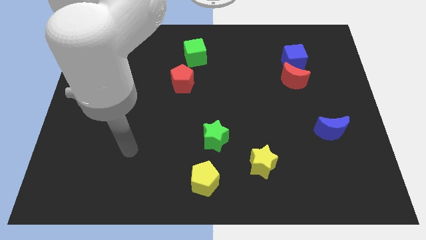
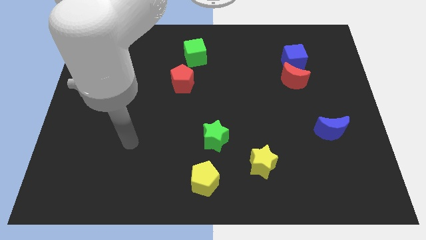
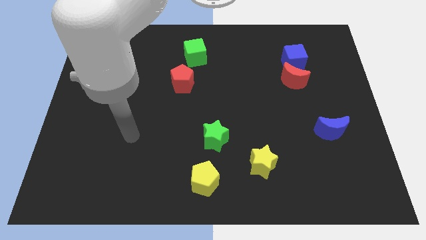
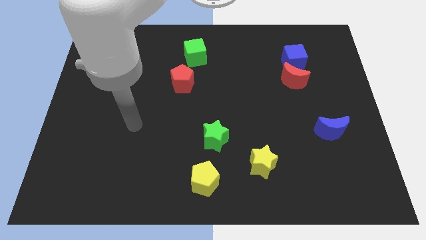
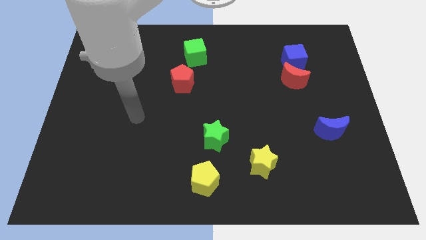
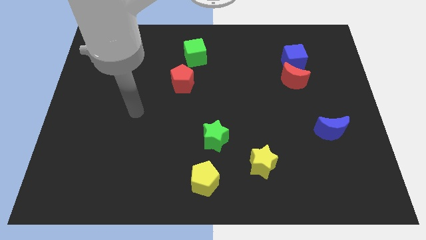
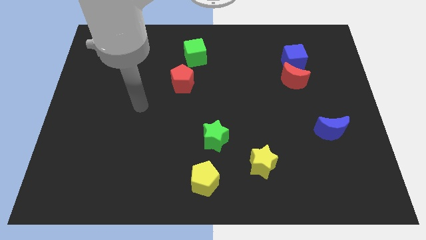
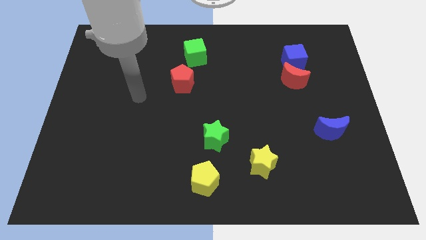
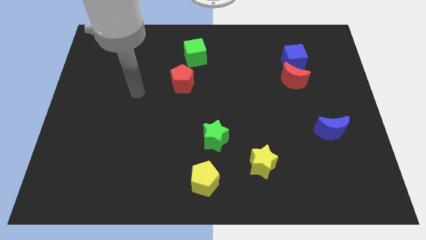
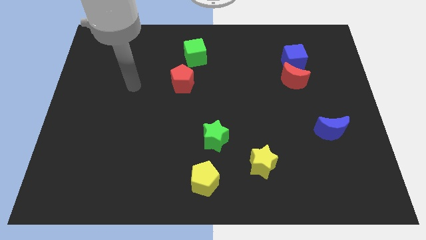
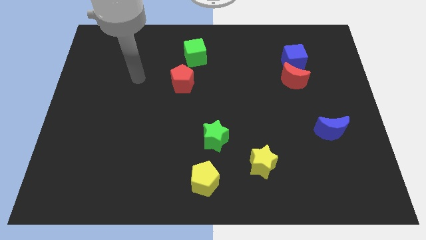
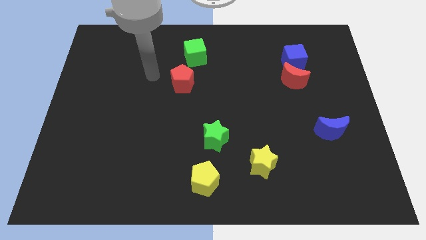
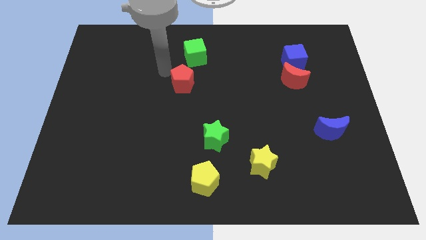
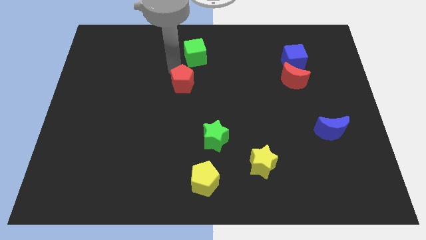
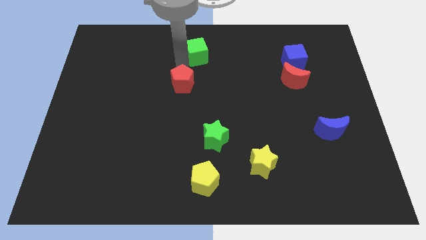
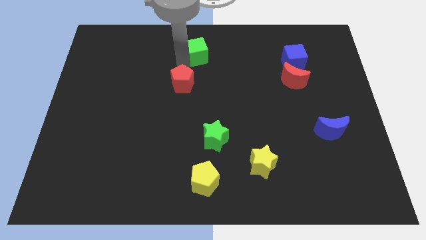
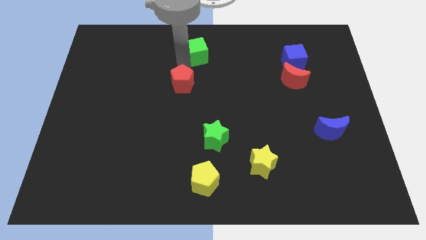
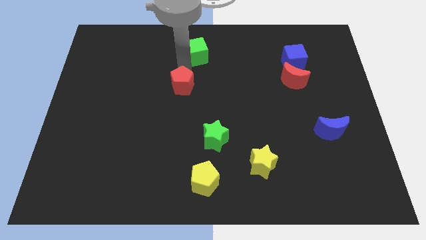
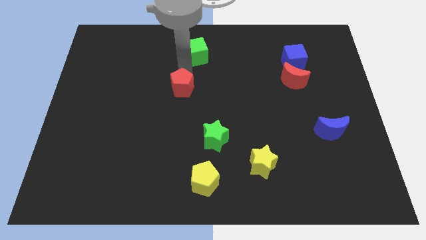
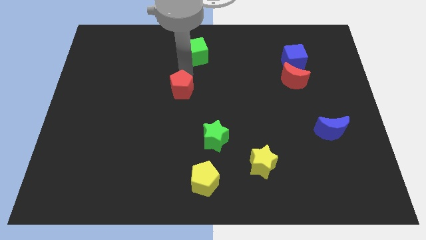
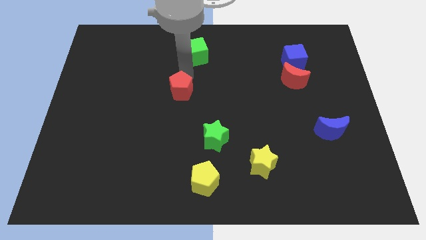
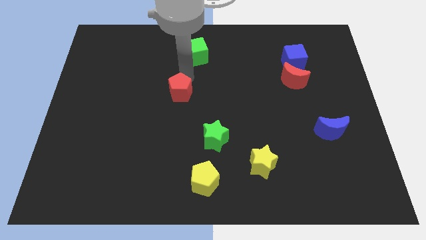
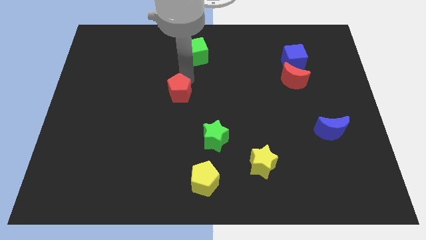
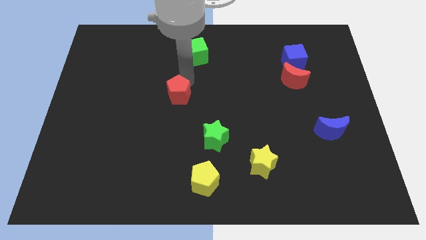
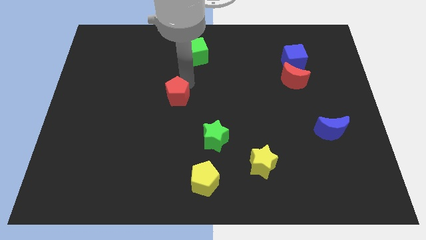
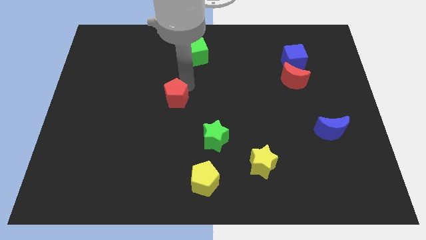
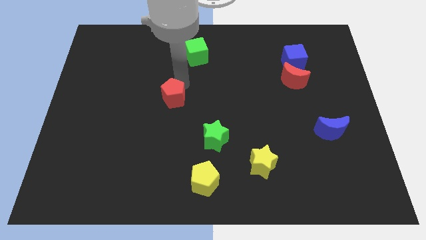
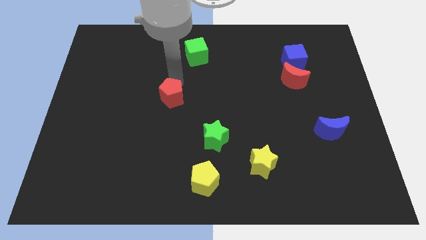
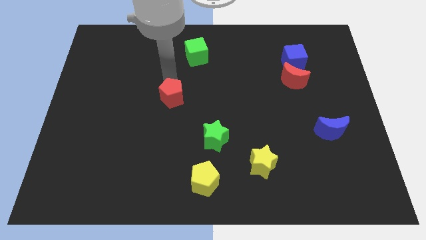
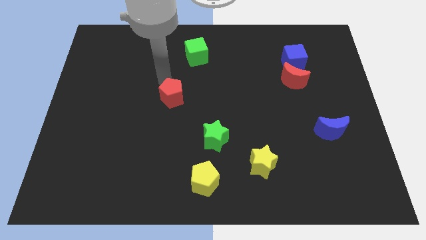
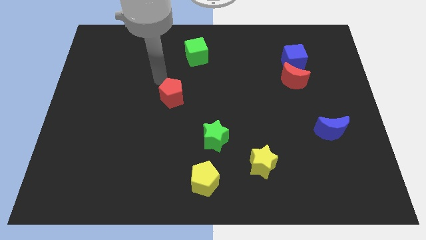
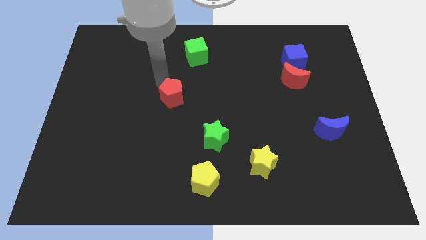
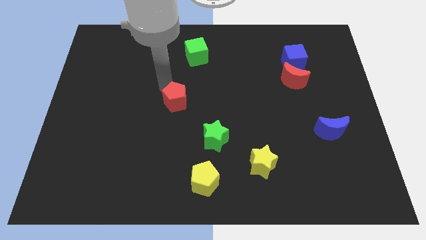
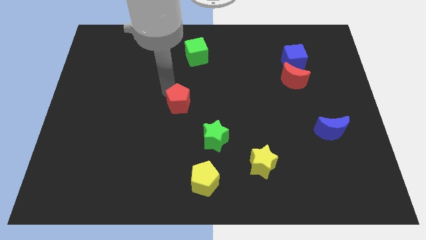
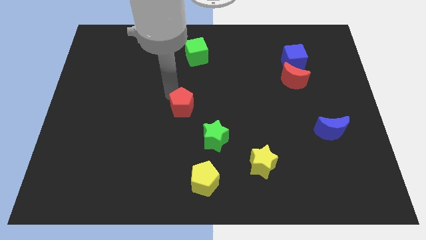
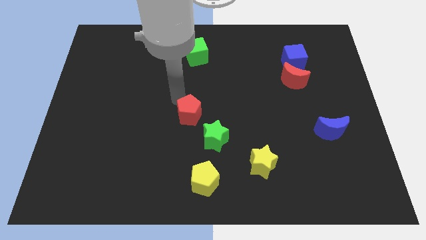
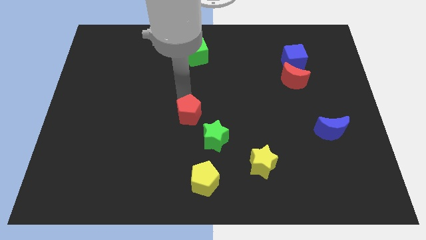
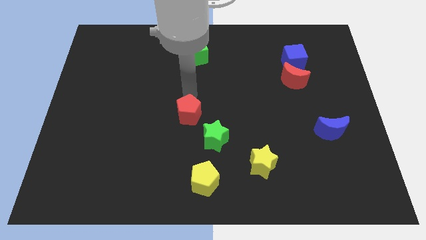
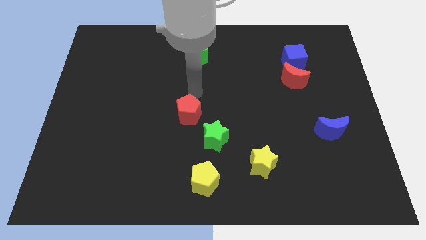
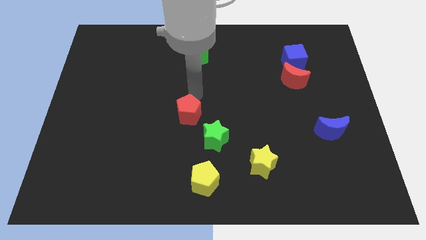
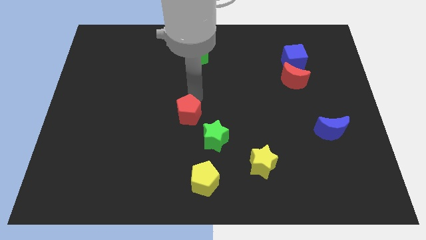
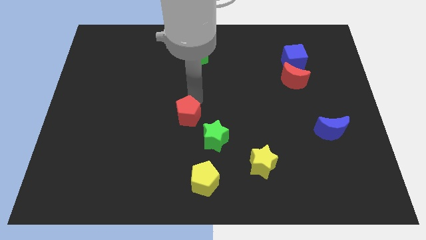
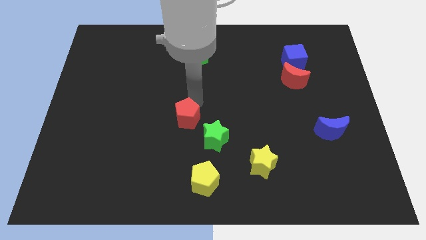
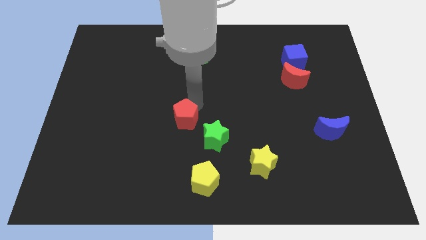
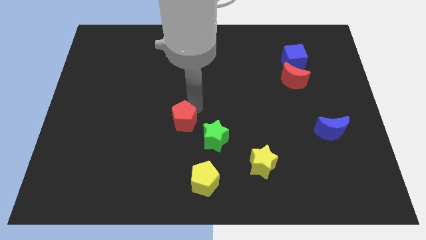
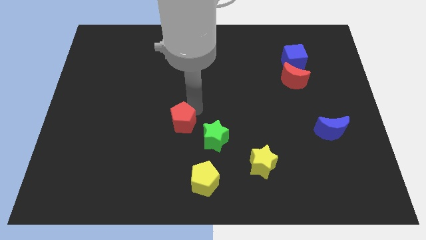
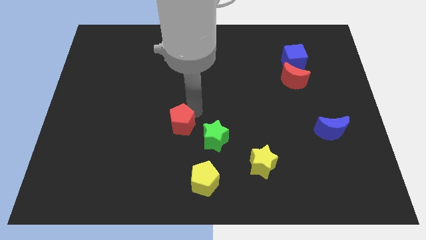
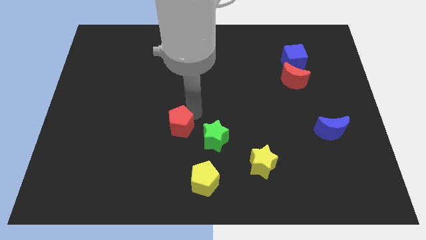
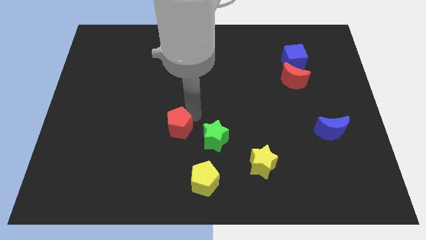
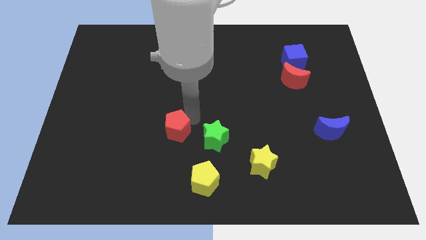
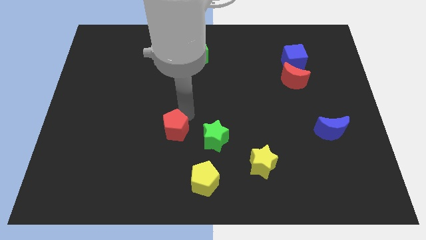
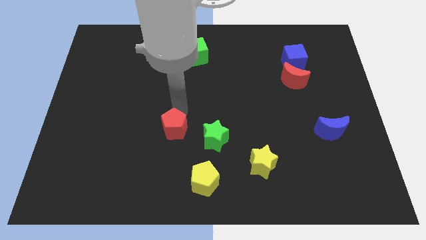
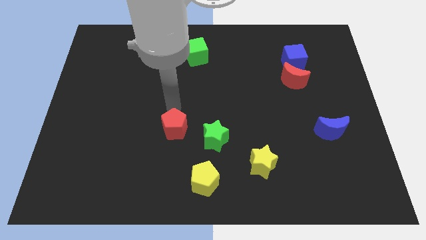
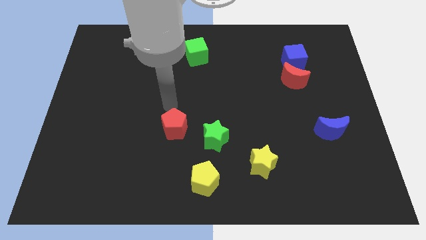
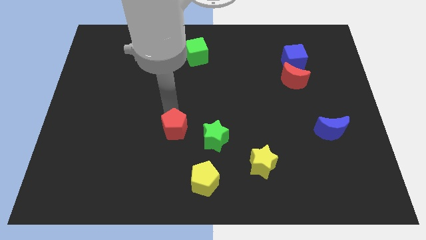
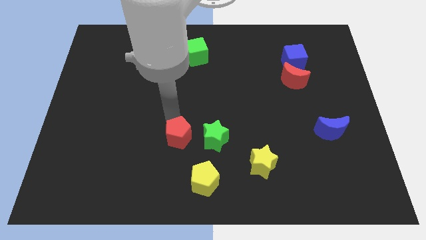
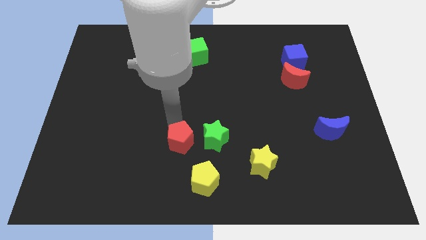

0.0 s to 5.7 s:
slide the red pentagon to the top left of the yellow pentagon

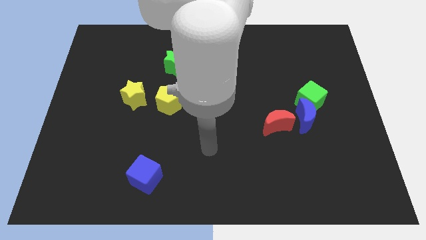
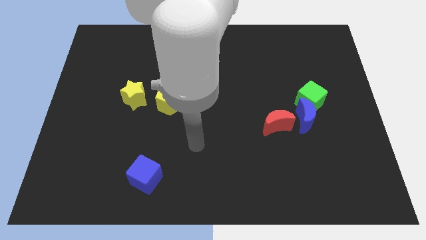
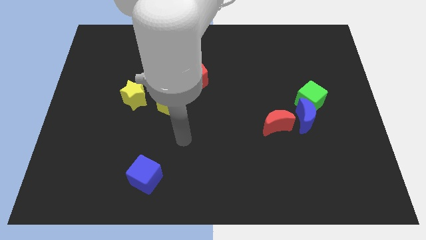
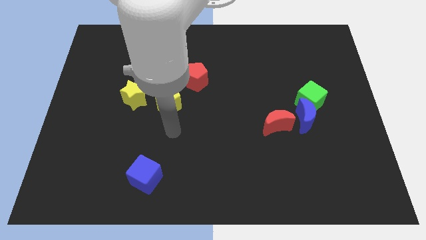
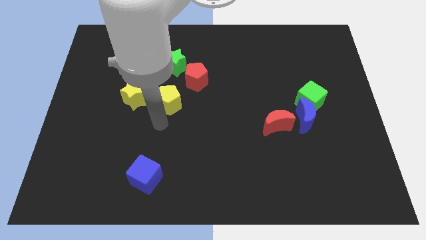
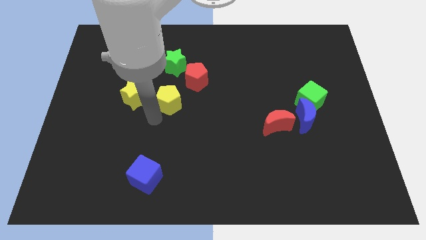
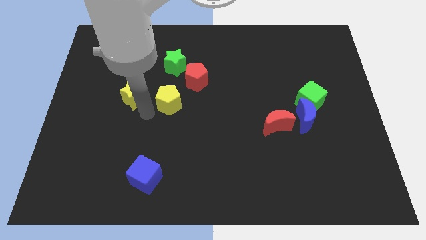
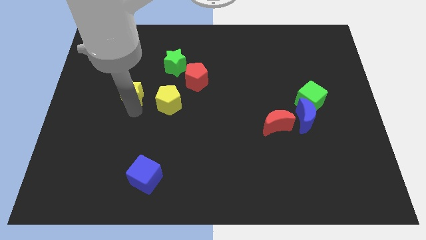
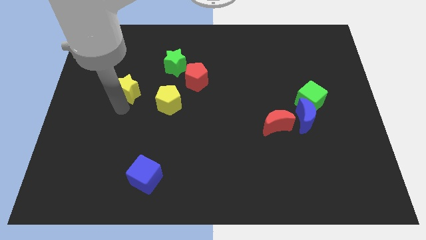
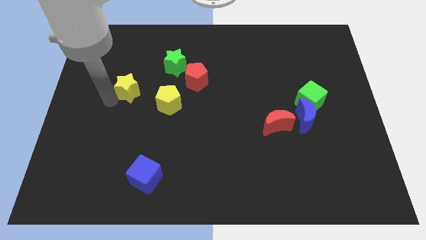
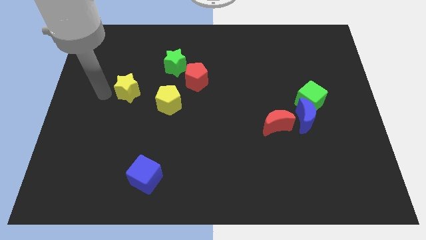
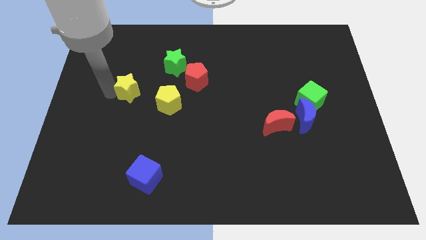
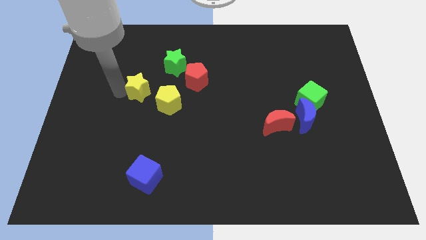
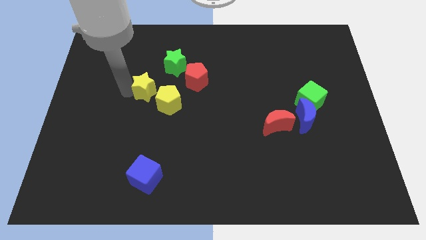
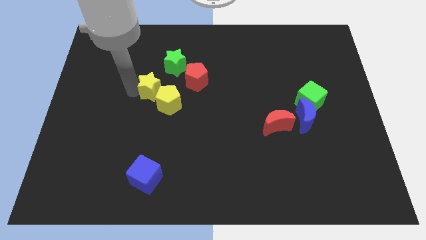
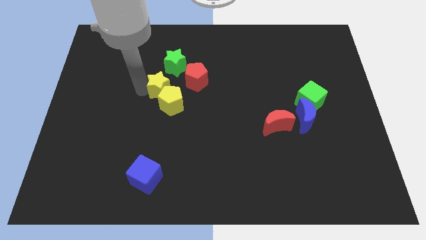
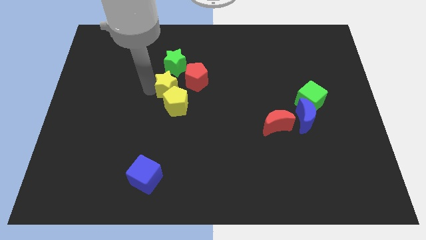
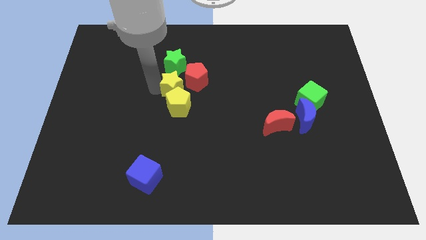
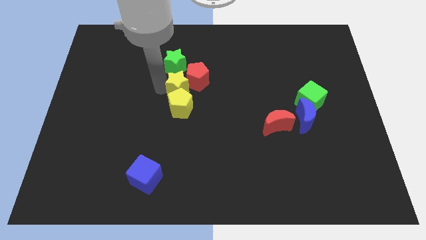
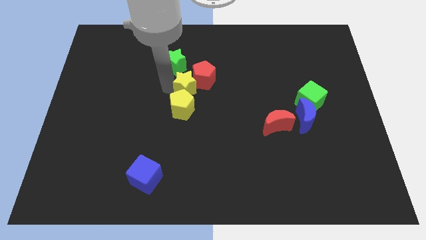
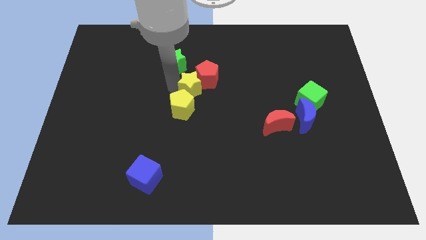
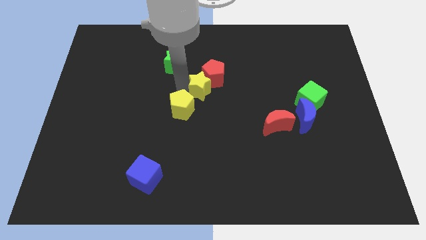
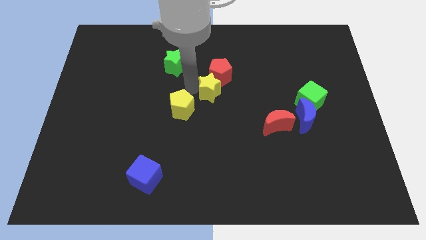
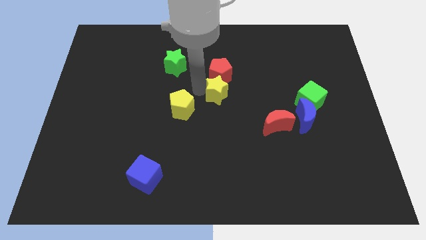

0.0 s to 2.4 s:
move the yellow star diagonally down and to the right of the red pentagon
